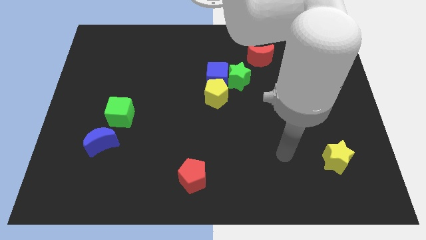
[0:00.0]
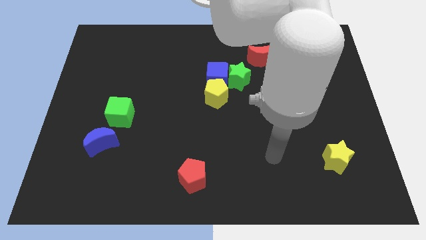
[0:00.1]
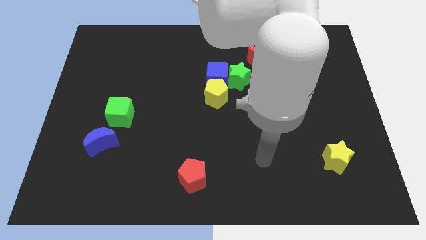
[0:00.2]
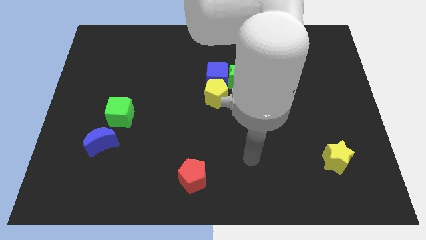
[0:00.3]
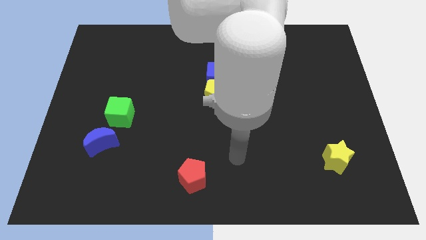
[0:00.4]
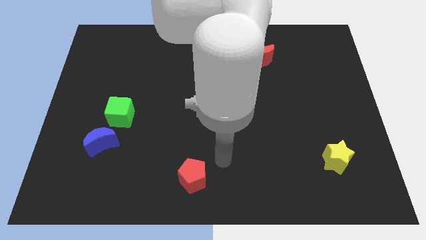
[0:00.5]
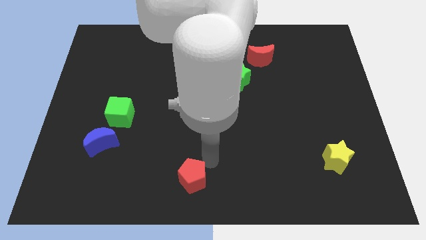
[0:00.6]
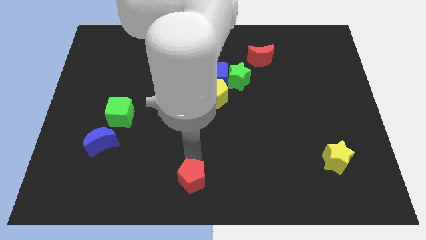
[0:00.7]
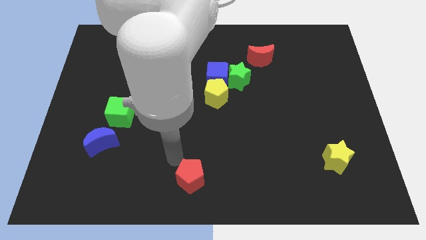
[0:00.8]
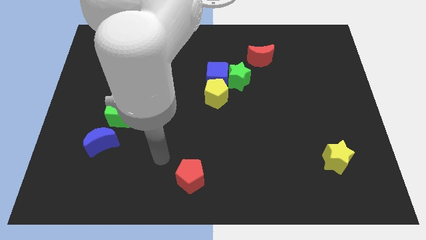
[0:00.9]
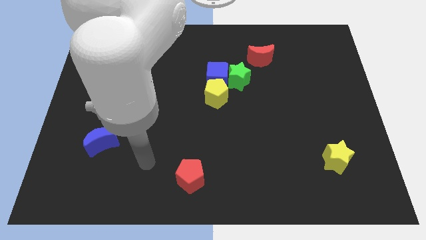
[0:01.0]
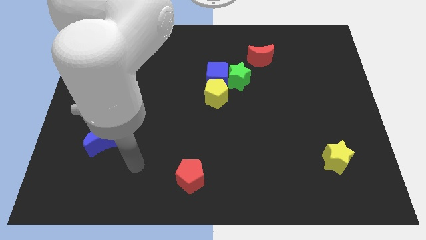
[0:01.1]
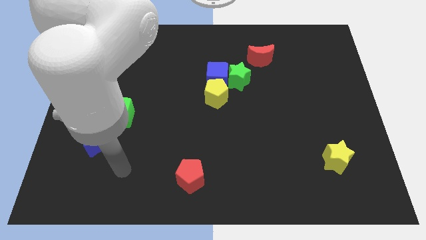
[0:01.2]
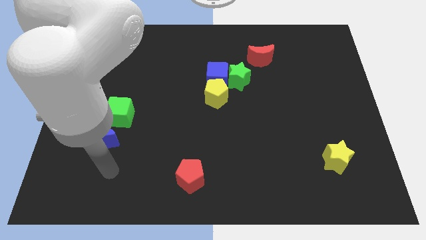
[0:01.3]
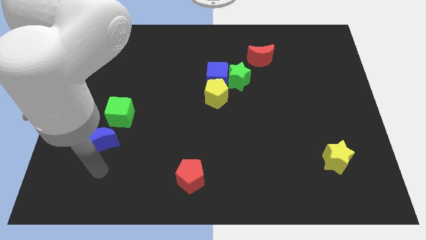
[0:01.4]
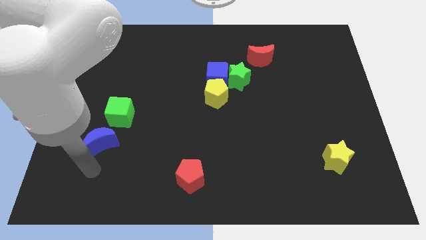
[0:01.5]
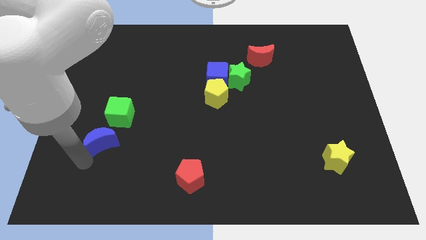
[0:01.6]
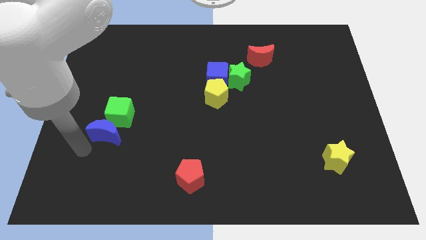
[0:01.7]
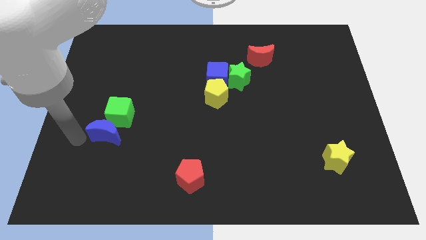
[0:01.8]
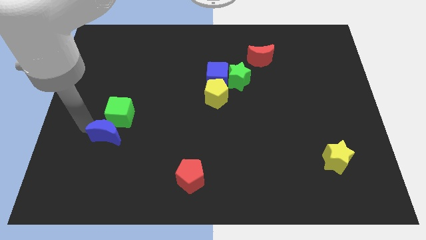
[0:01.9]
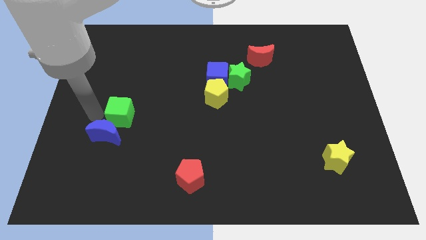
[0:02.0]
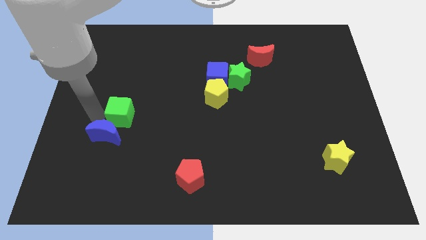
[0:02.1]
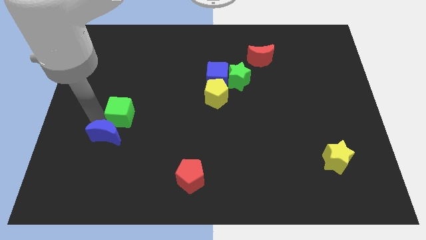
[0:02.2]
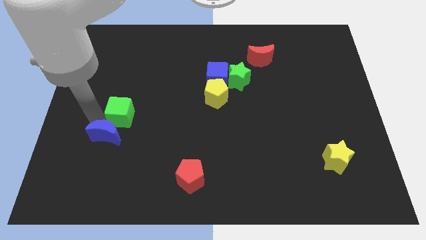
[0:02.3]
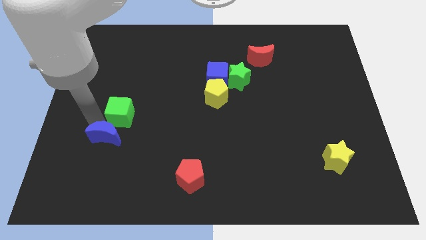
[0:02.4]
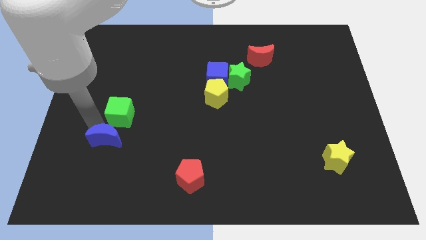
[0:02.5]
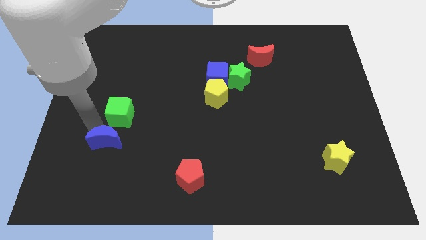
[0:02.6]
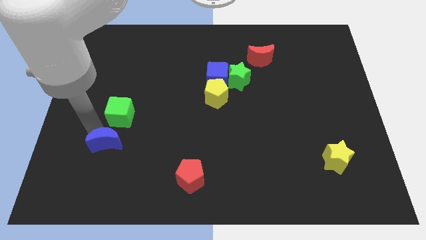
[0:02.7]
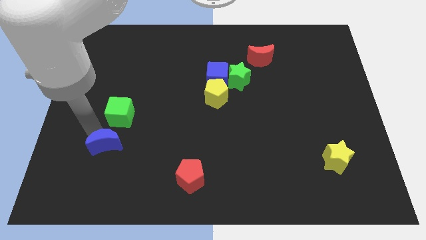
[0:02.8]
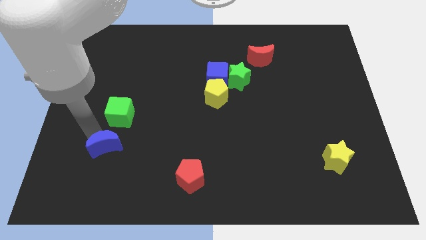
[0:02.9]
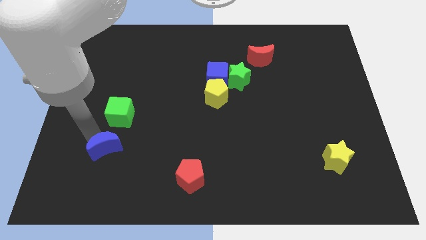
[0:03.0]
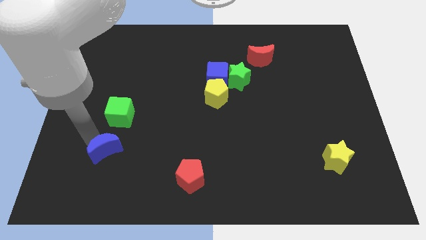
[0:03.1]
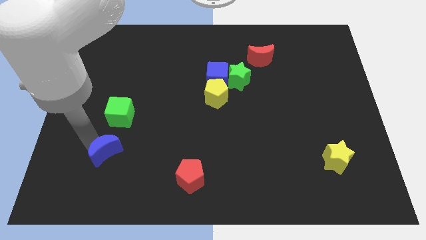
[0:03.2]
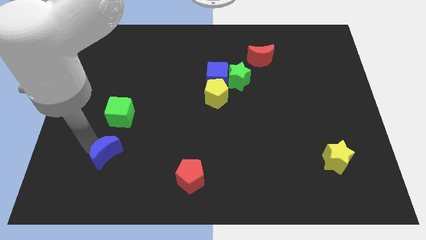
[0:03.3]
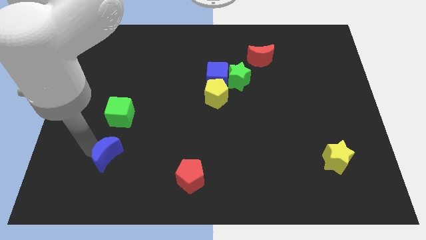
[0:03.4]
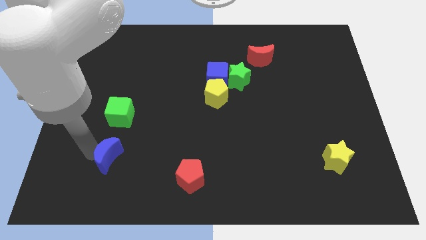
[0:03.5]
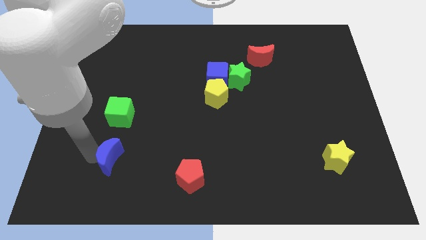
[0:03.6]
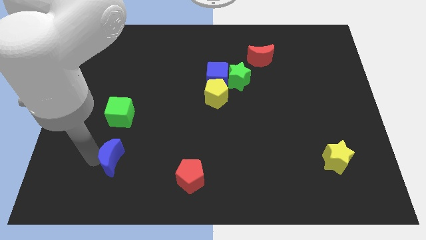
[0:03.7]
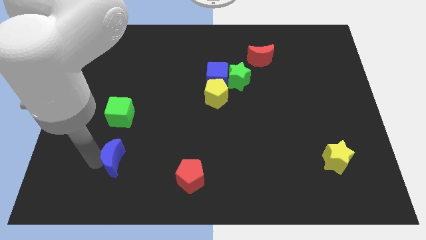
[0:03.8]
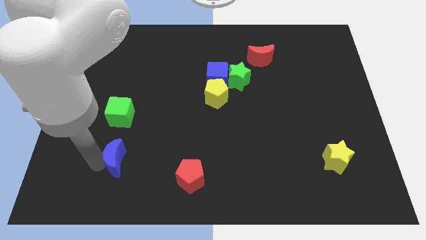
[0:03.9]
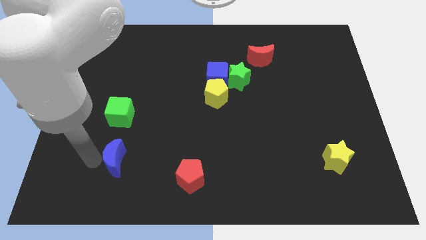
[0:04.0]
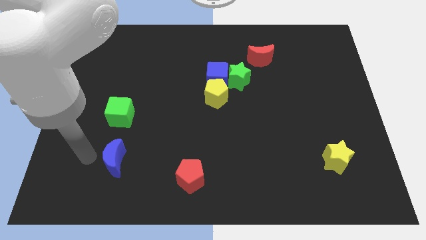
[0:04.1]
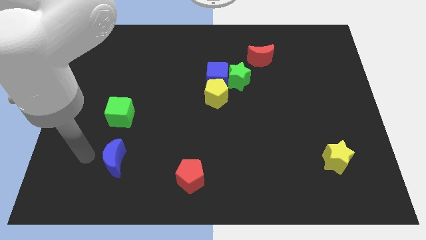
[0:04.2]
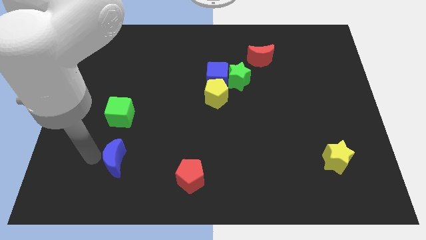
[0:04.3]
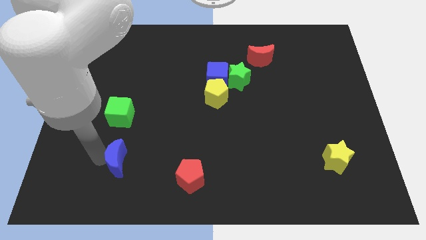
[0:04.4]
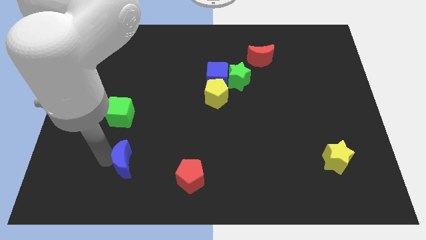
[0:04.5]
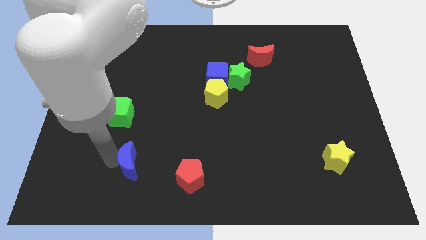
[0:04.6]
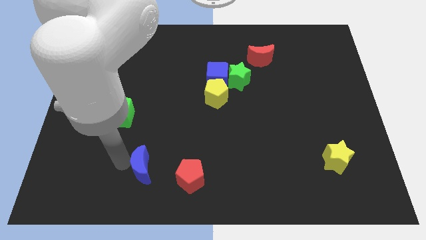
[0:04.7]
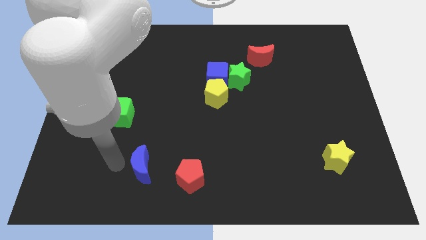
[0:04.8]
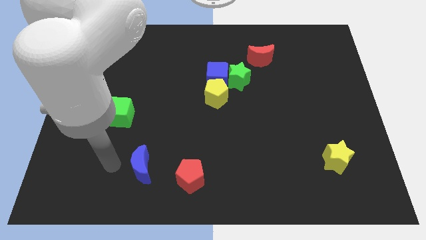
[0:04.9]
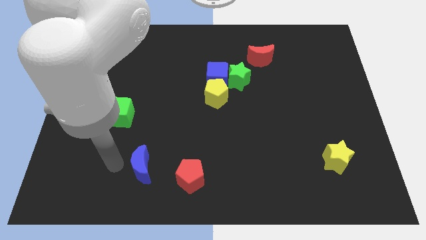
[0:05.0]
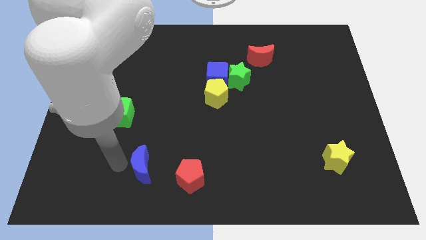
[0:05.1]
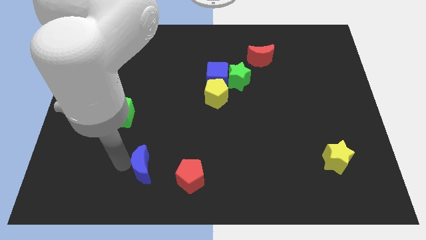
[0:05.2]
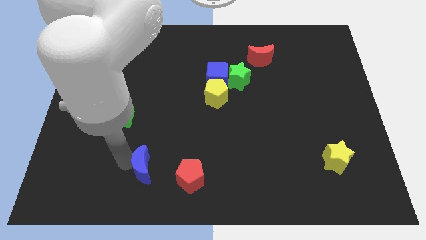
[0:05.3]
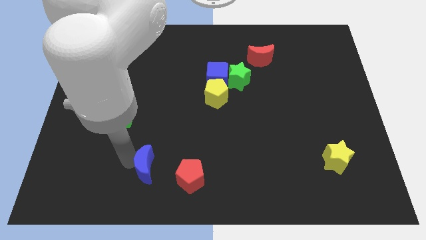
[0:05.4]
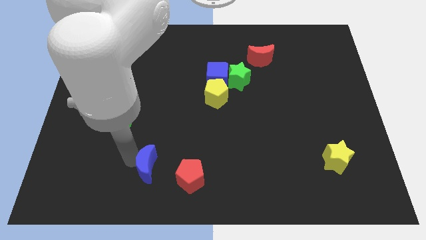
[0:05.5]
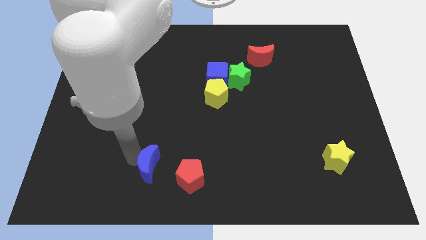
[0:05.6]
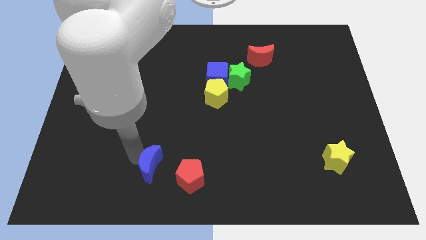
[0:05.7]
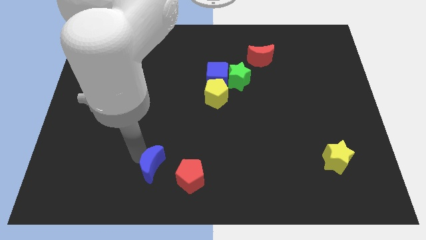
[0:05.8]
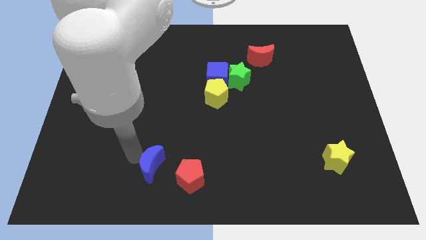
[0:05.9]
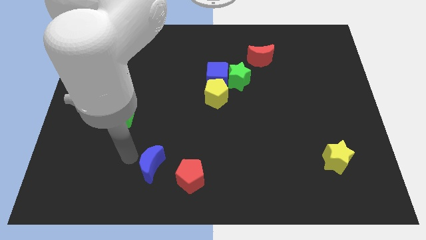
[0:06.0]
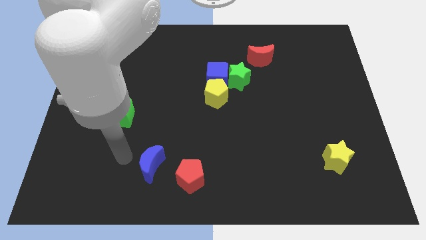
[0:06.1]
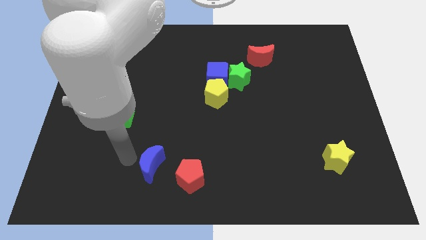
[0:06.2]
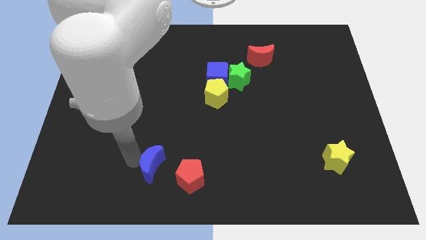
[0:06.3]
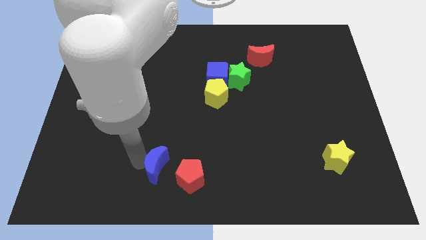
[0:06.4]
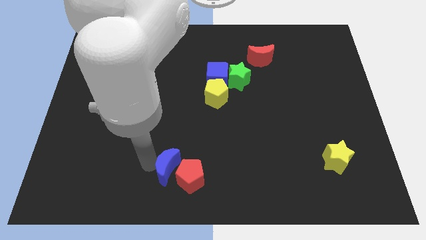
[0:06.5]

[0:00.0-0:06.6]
put the blue moon close to the red pentagon

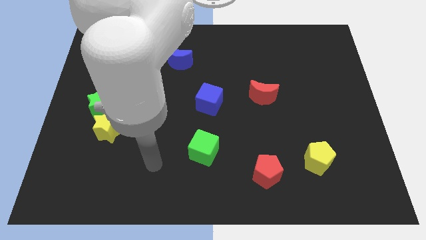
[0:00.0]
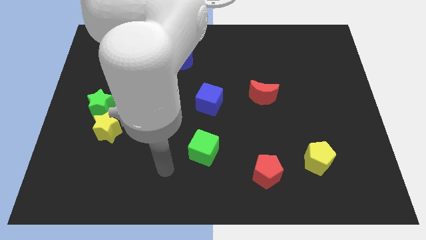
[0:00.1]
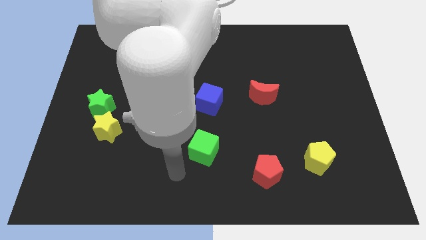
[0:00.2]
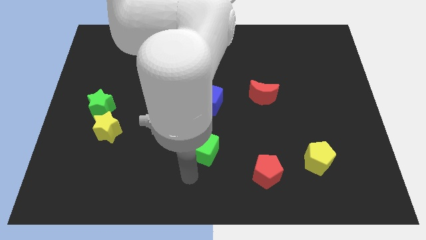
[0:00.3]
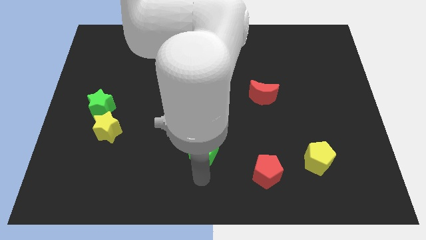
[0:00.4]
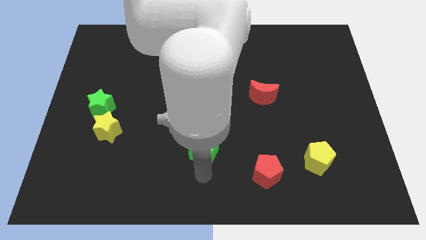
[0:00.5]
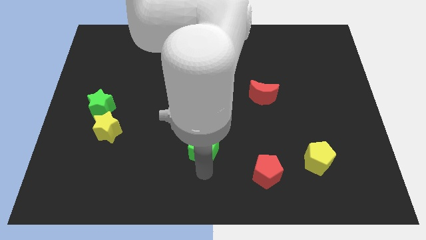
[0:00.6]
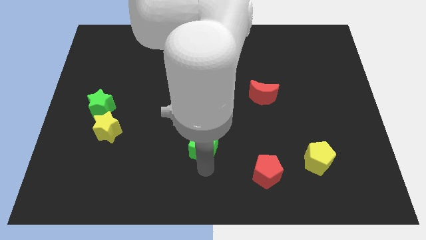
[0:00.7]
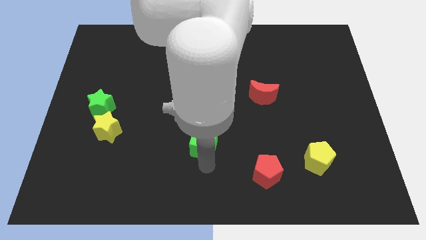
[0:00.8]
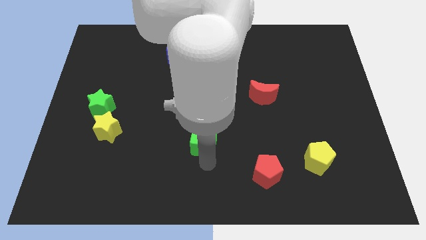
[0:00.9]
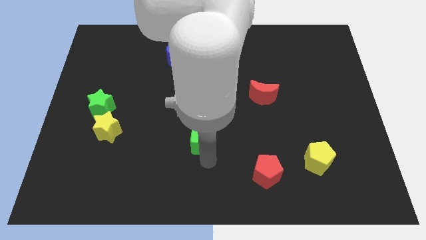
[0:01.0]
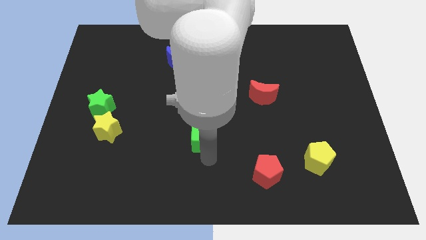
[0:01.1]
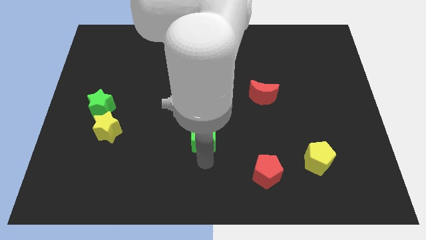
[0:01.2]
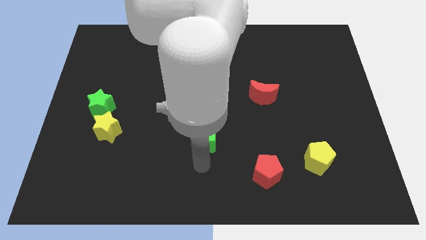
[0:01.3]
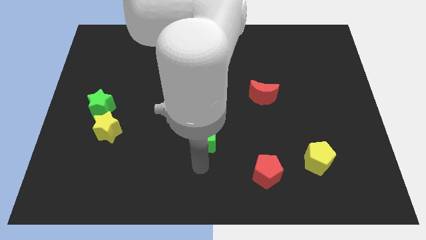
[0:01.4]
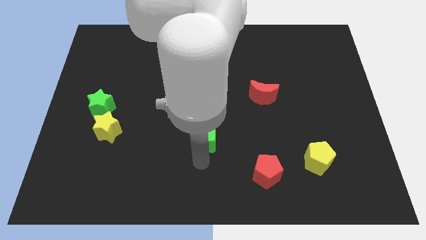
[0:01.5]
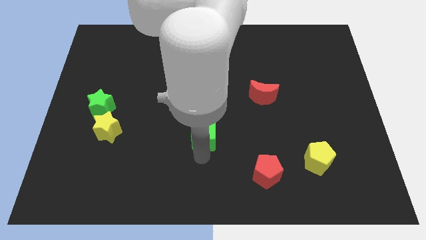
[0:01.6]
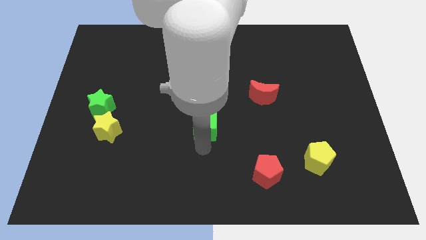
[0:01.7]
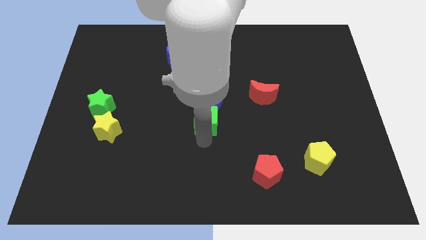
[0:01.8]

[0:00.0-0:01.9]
put the green cube to the blue cube

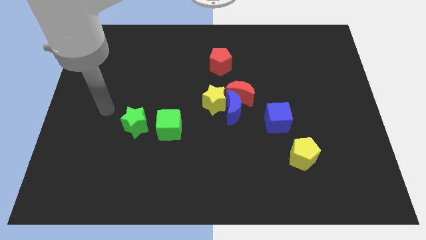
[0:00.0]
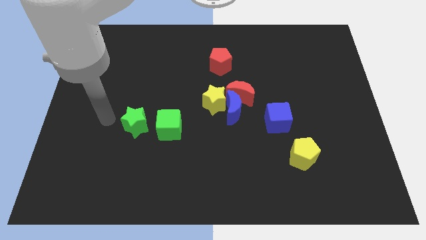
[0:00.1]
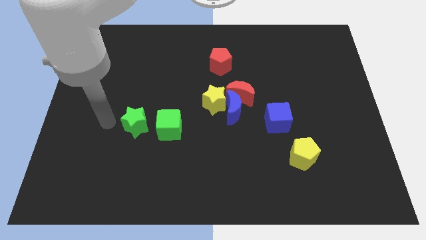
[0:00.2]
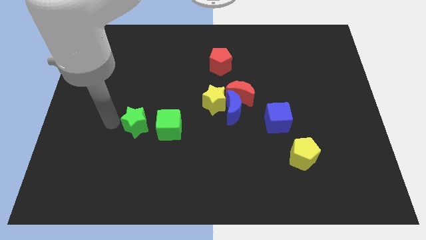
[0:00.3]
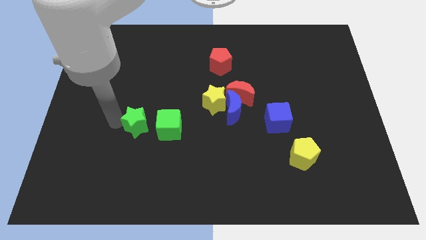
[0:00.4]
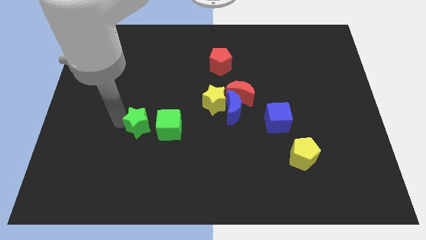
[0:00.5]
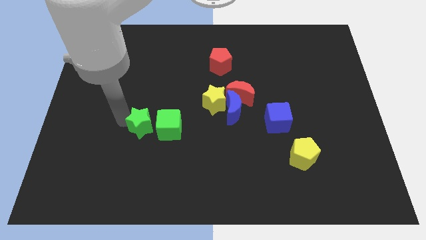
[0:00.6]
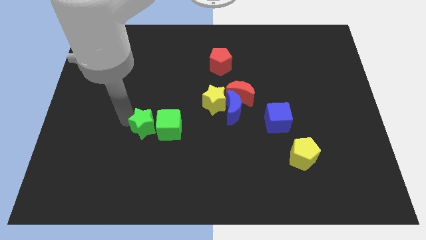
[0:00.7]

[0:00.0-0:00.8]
move the green star next to the green cube
